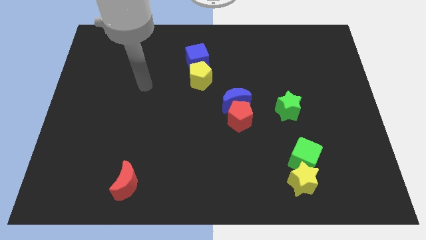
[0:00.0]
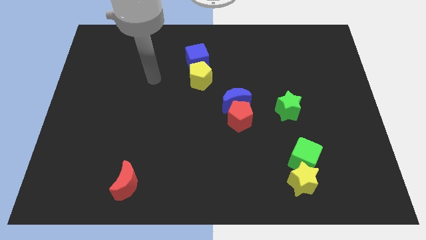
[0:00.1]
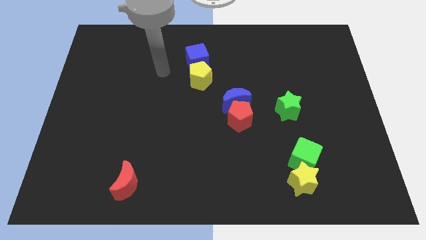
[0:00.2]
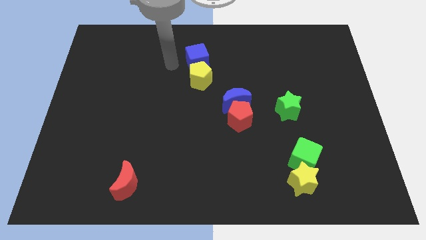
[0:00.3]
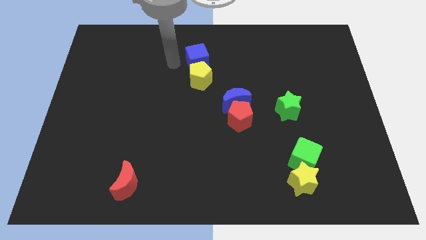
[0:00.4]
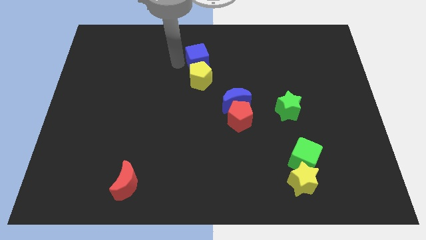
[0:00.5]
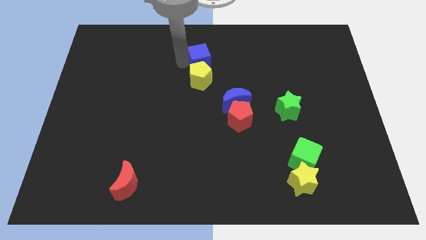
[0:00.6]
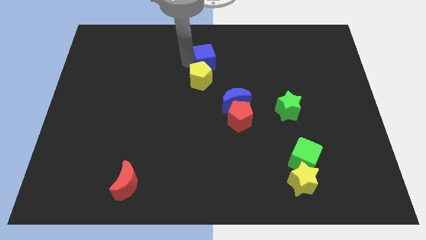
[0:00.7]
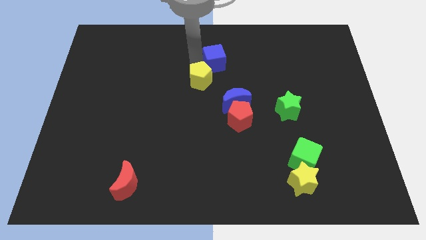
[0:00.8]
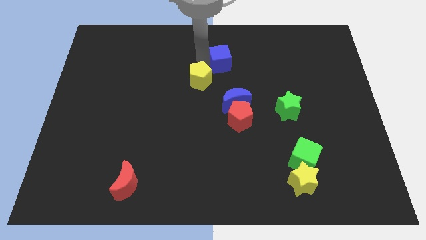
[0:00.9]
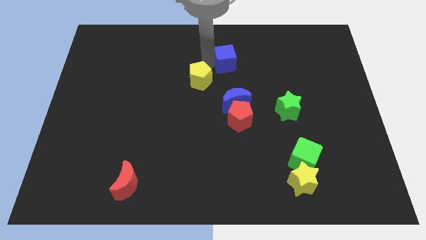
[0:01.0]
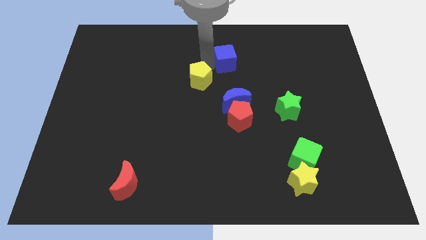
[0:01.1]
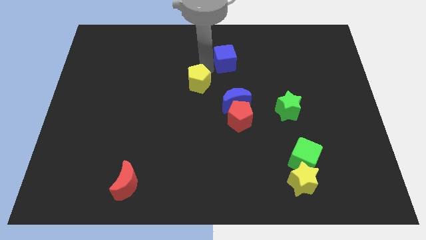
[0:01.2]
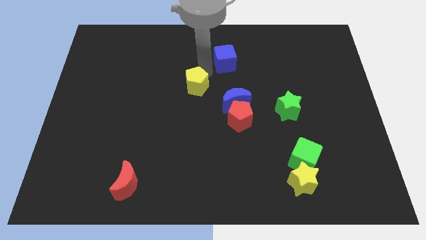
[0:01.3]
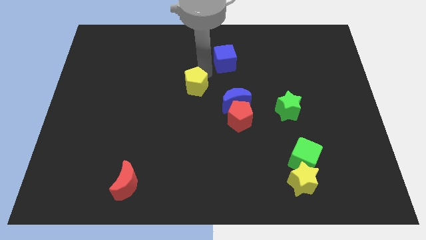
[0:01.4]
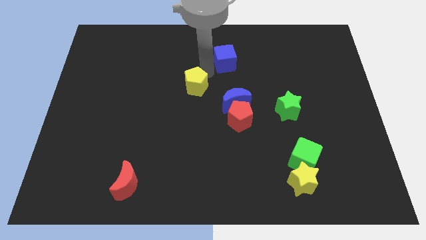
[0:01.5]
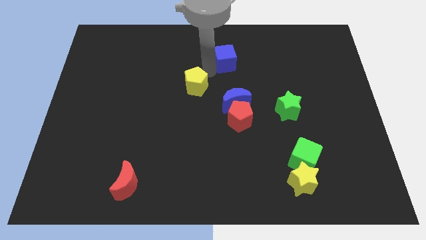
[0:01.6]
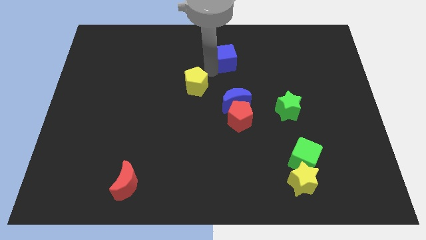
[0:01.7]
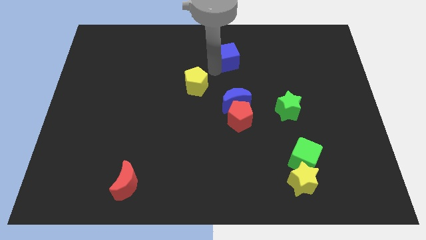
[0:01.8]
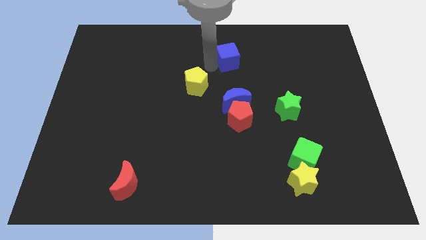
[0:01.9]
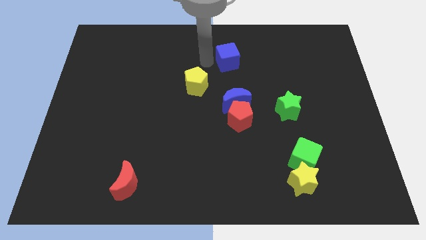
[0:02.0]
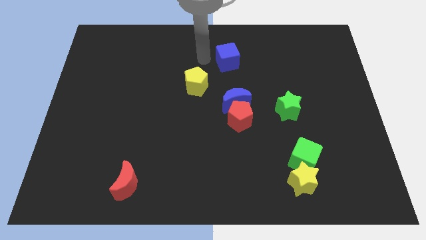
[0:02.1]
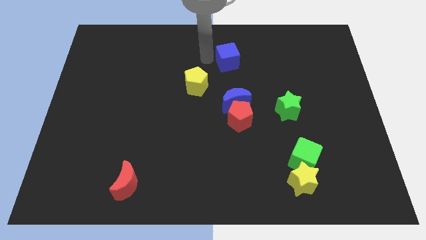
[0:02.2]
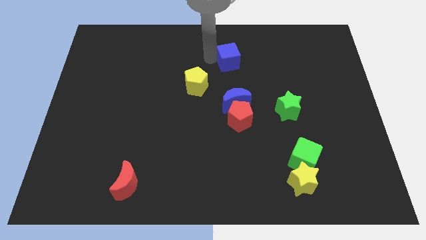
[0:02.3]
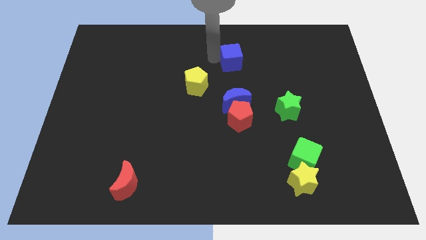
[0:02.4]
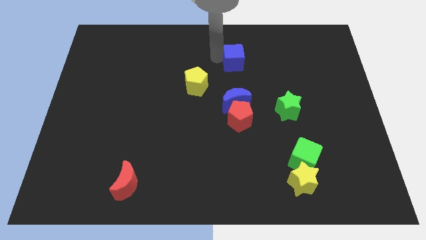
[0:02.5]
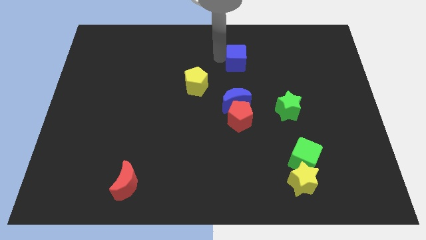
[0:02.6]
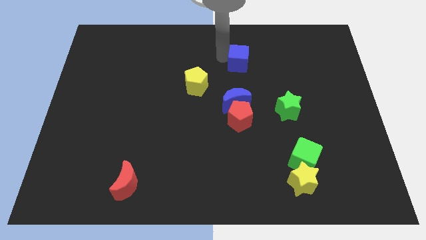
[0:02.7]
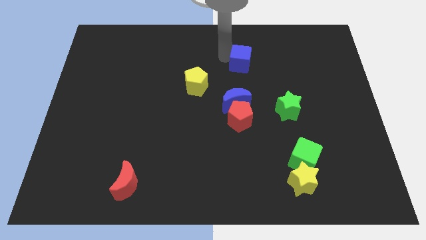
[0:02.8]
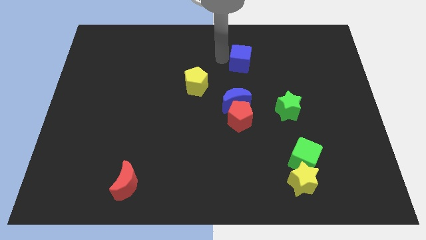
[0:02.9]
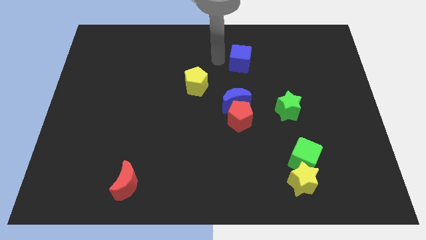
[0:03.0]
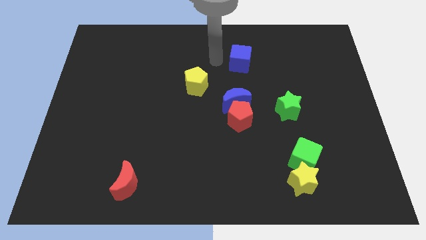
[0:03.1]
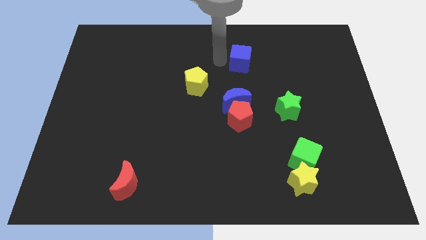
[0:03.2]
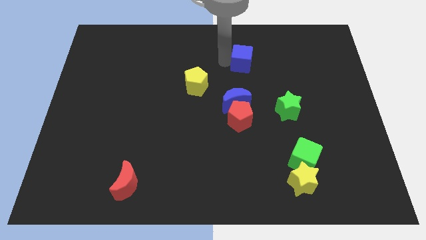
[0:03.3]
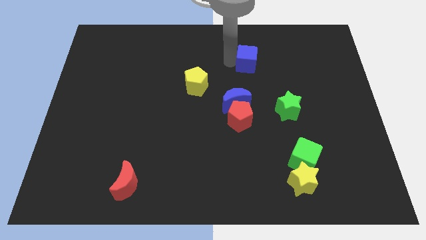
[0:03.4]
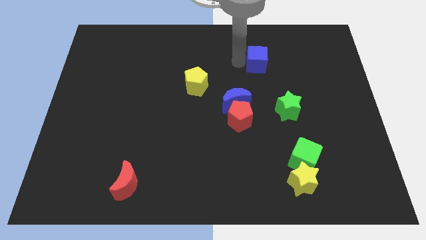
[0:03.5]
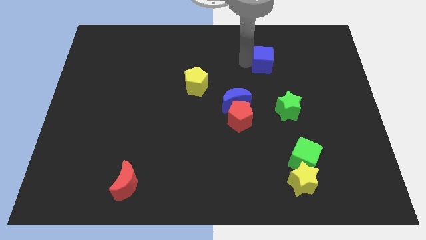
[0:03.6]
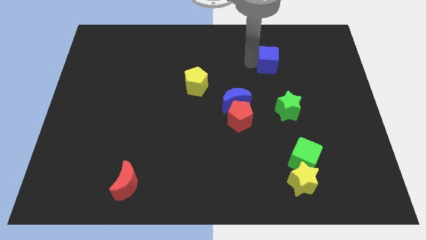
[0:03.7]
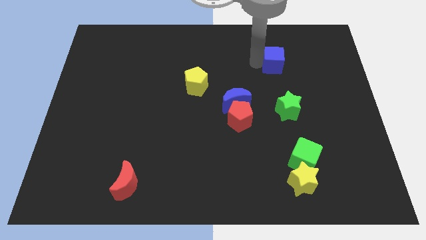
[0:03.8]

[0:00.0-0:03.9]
slide the blue cube right

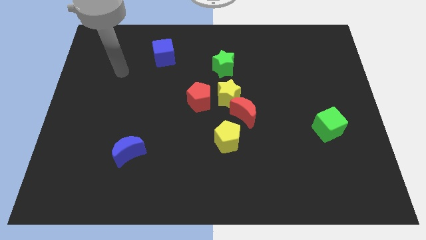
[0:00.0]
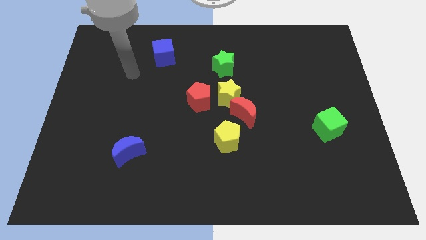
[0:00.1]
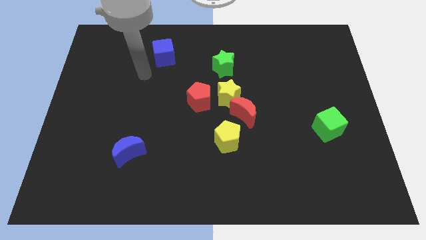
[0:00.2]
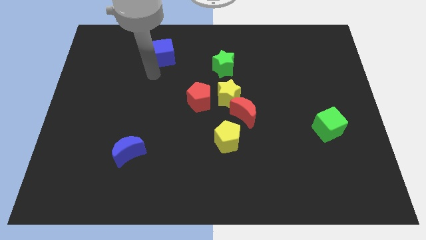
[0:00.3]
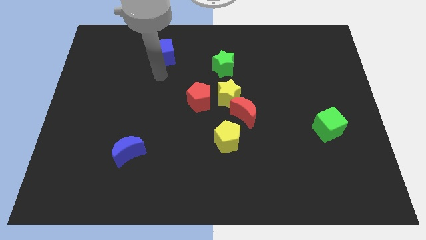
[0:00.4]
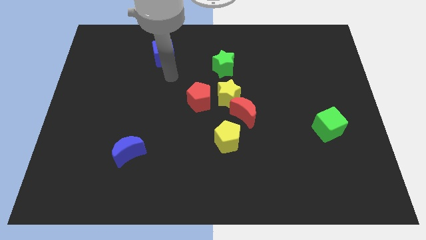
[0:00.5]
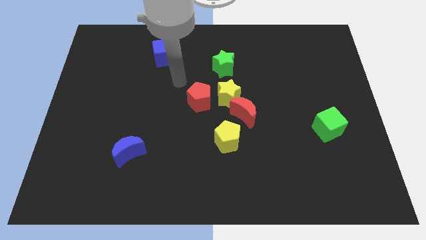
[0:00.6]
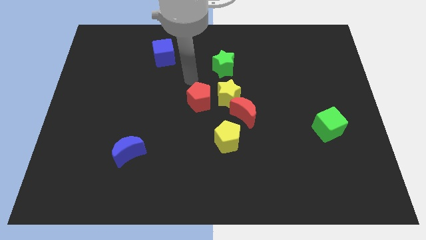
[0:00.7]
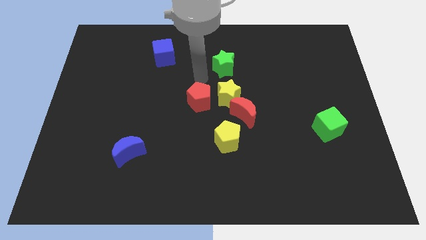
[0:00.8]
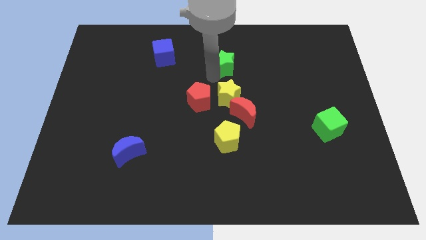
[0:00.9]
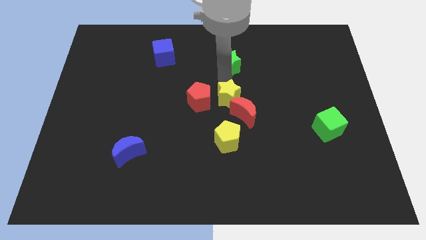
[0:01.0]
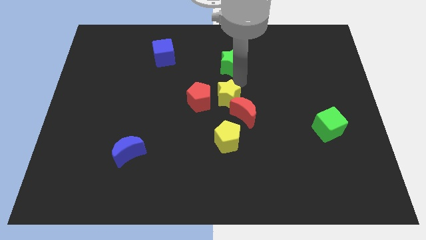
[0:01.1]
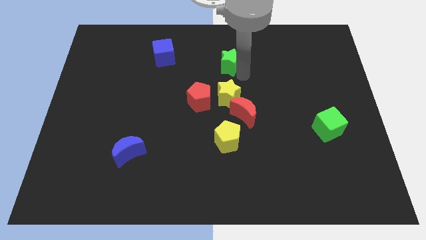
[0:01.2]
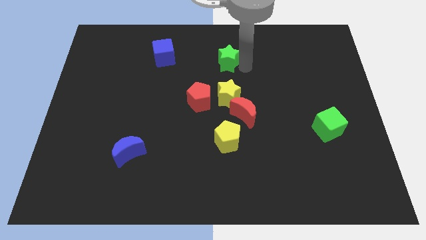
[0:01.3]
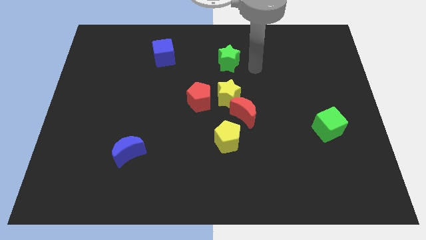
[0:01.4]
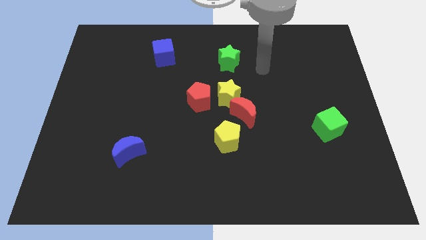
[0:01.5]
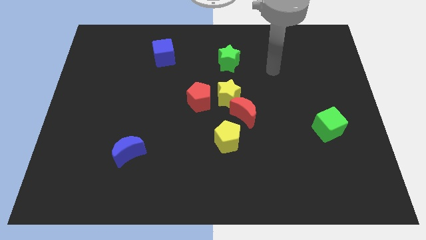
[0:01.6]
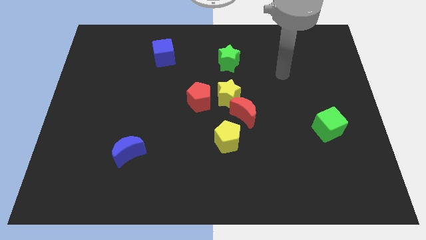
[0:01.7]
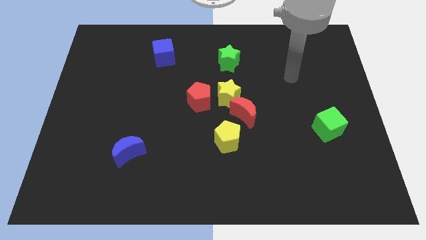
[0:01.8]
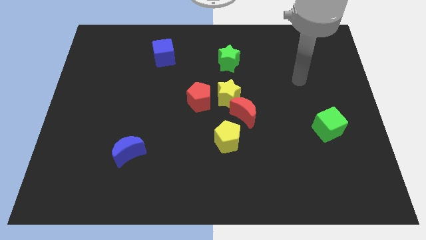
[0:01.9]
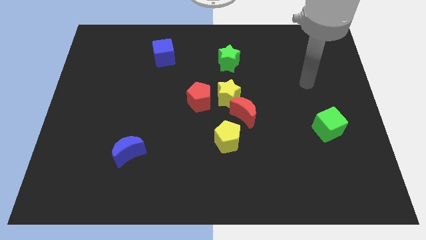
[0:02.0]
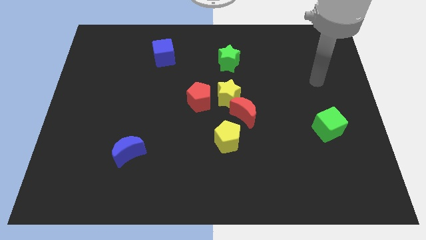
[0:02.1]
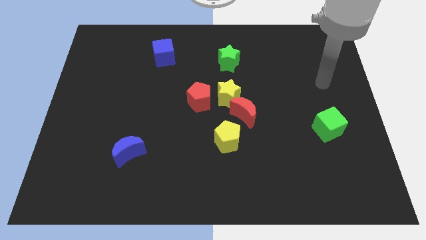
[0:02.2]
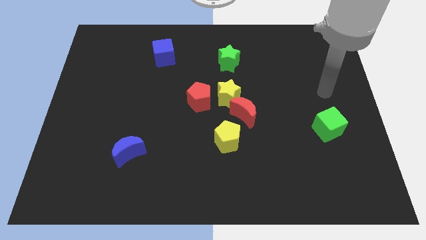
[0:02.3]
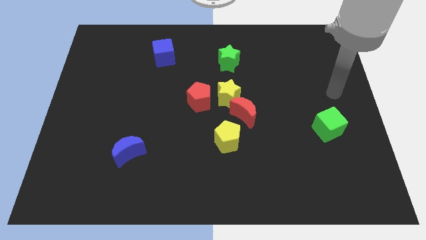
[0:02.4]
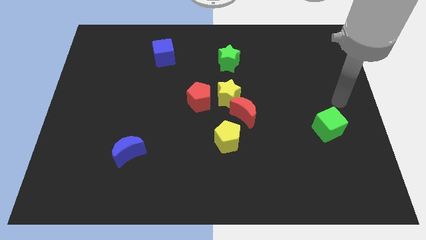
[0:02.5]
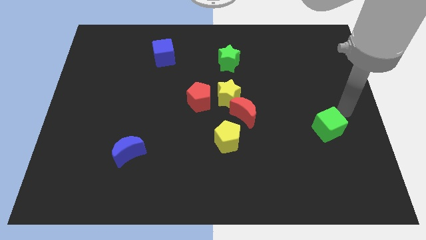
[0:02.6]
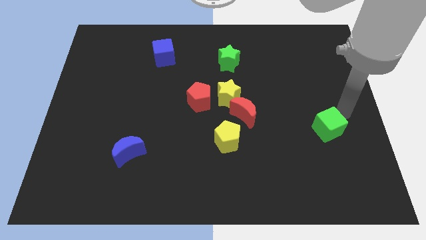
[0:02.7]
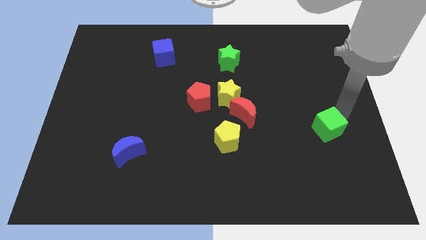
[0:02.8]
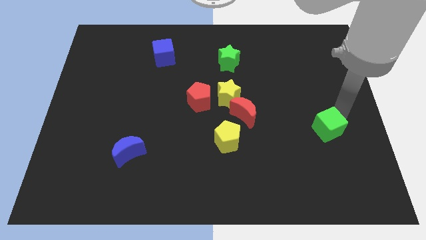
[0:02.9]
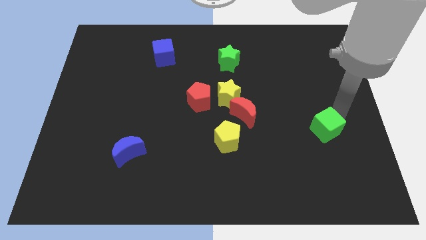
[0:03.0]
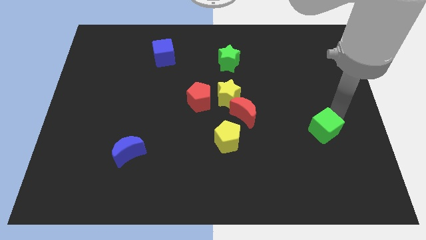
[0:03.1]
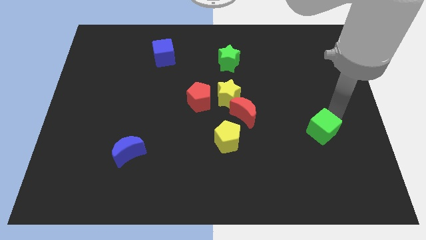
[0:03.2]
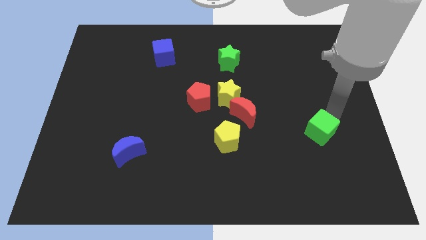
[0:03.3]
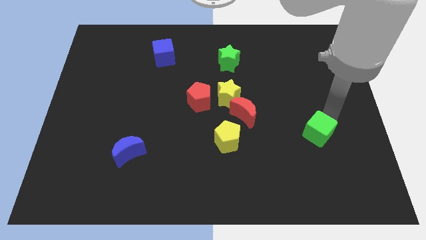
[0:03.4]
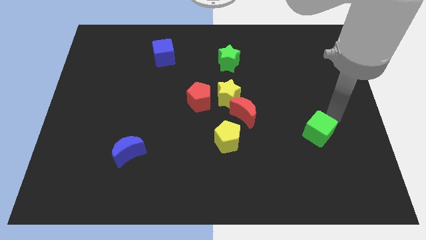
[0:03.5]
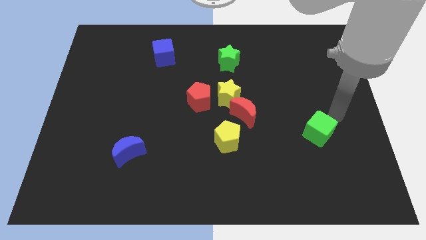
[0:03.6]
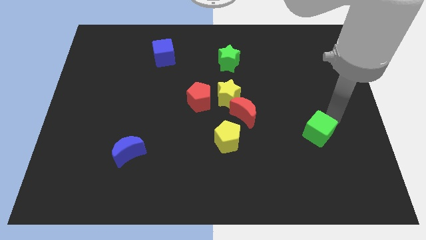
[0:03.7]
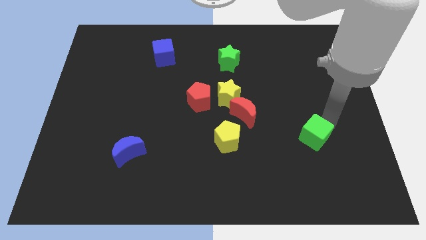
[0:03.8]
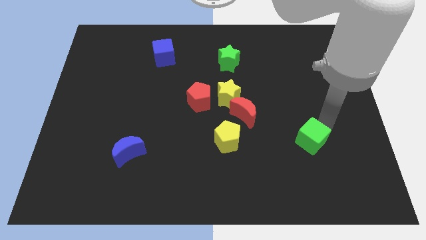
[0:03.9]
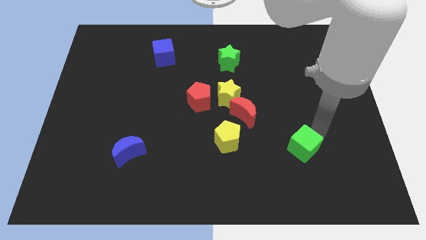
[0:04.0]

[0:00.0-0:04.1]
move the green cube a little bit down and to the left

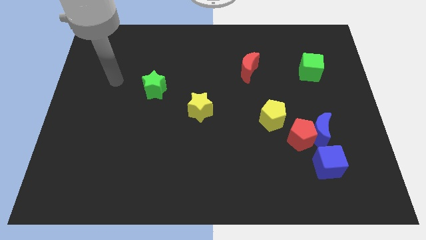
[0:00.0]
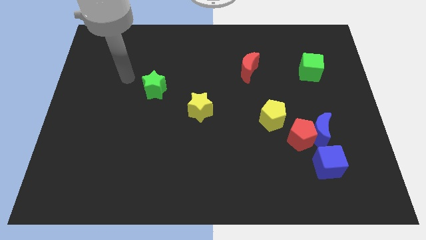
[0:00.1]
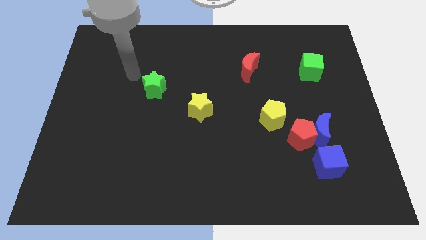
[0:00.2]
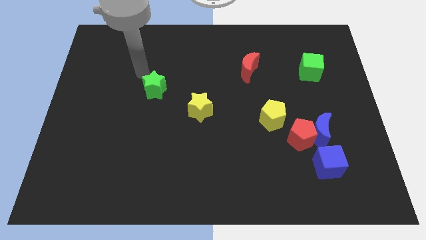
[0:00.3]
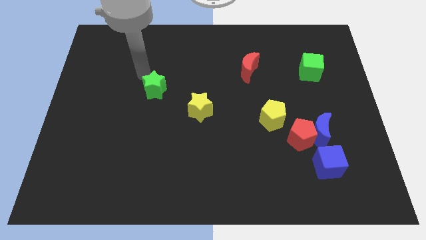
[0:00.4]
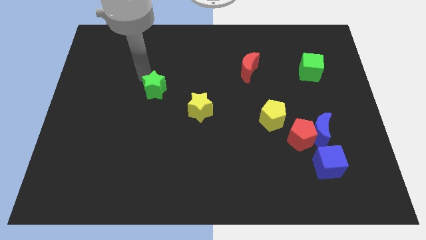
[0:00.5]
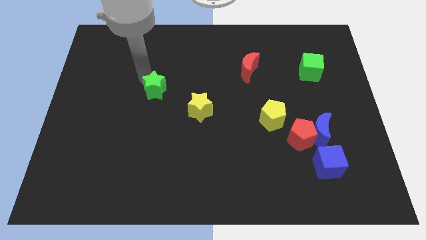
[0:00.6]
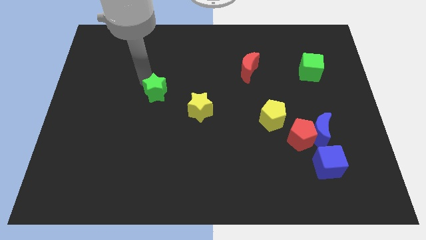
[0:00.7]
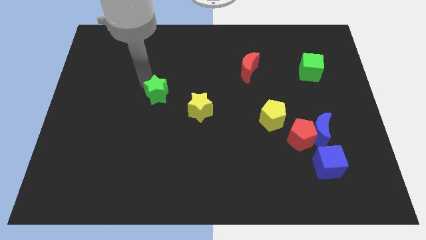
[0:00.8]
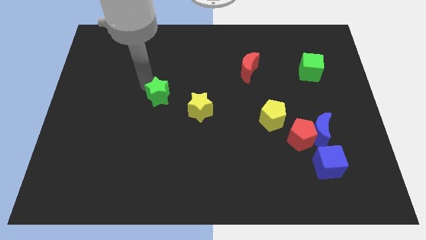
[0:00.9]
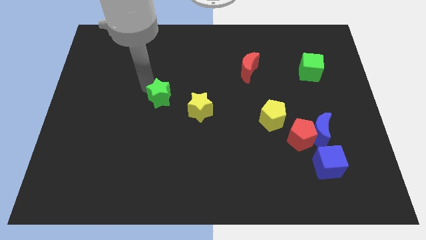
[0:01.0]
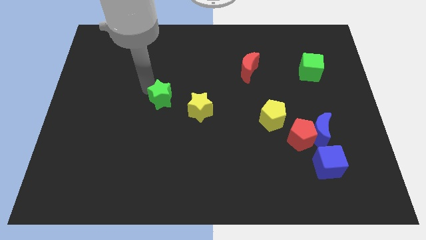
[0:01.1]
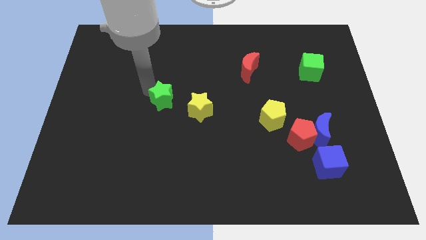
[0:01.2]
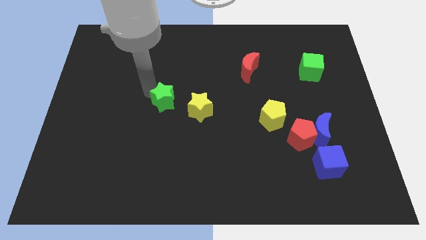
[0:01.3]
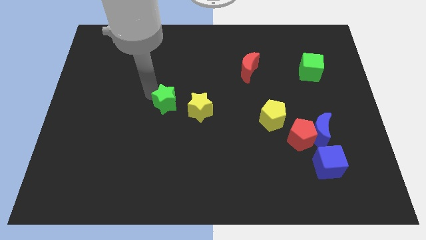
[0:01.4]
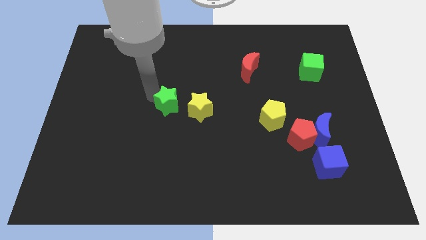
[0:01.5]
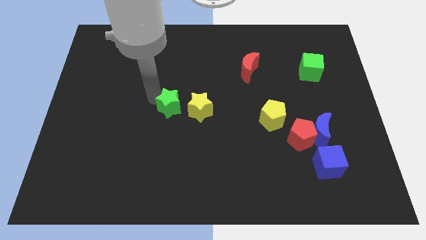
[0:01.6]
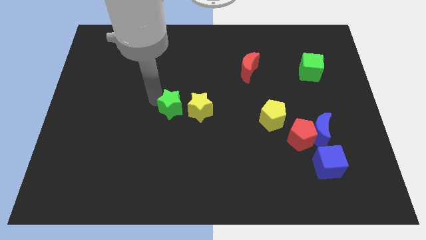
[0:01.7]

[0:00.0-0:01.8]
move the green star down and then to the right somewhat
